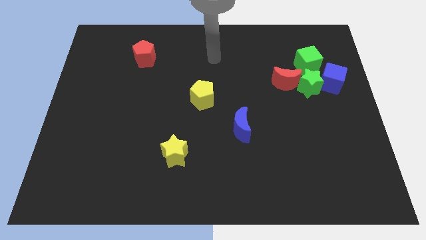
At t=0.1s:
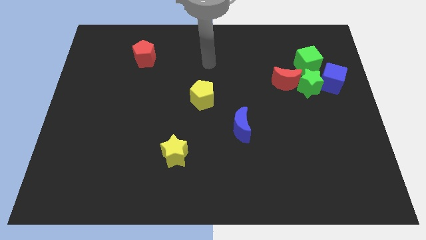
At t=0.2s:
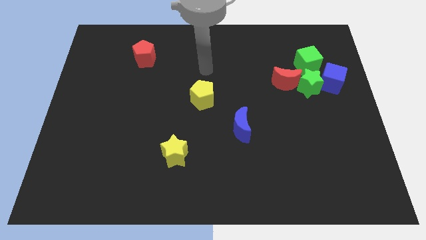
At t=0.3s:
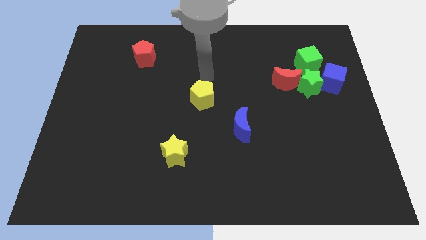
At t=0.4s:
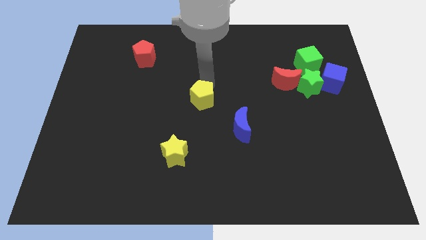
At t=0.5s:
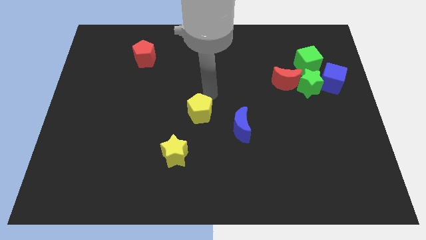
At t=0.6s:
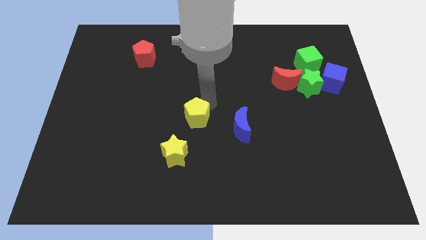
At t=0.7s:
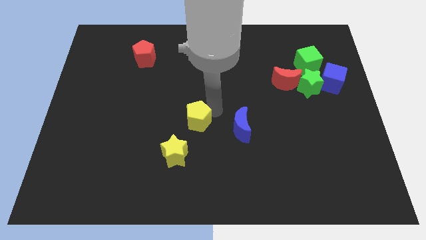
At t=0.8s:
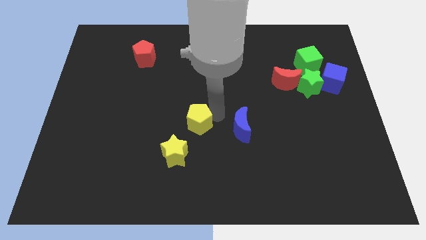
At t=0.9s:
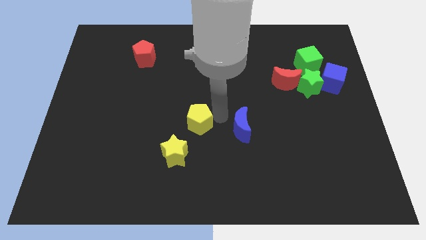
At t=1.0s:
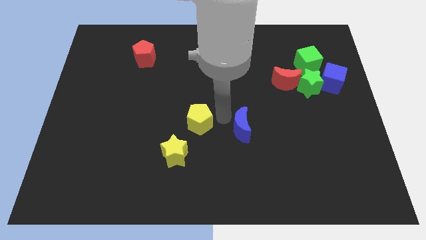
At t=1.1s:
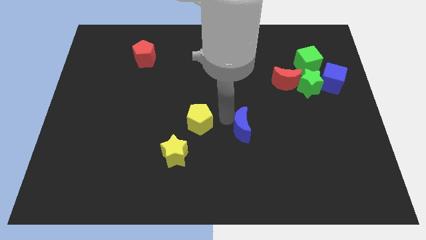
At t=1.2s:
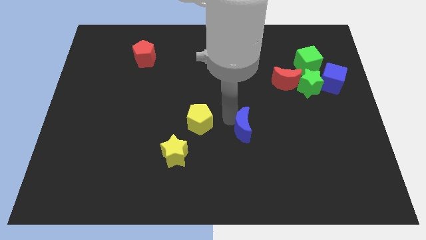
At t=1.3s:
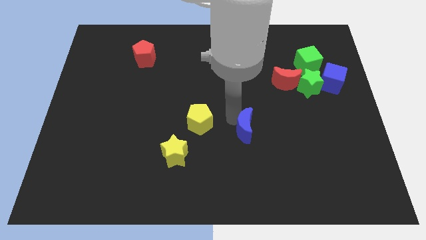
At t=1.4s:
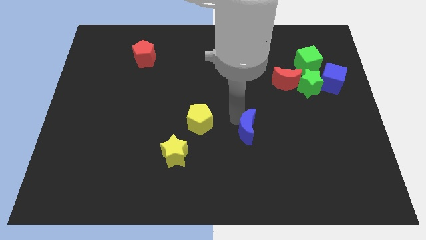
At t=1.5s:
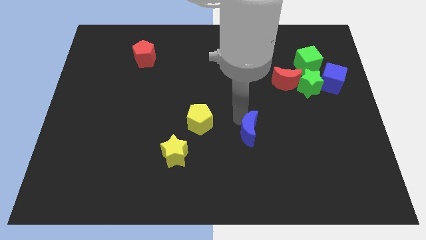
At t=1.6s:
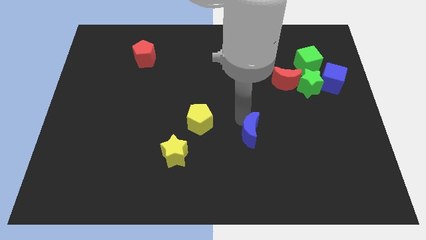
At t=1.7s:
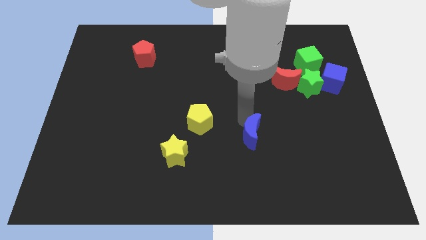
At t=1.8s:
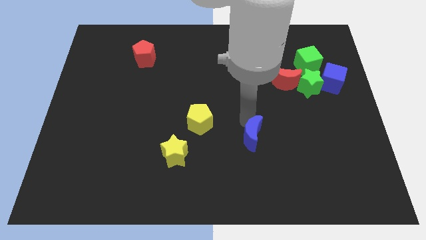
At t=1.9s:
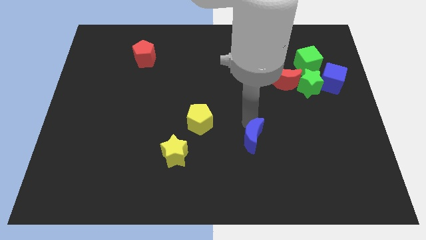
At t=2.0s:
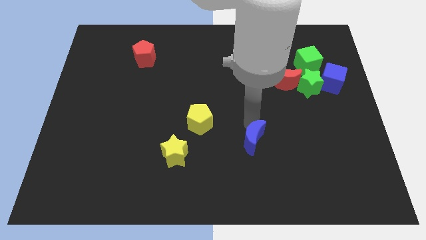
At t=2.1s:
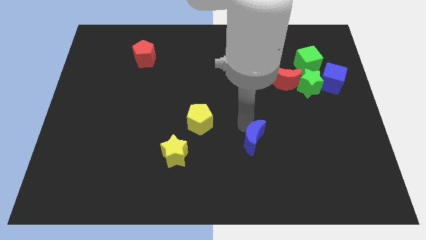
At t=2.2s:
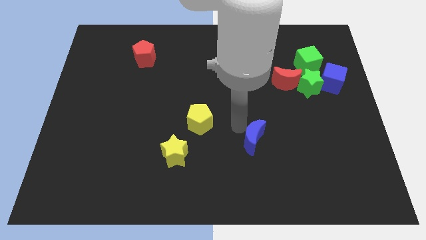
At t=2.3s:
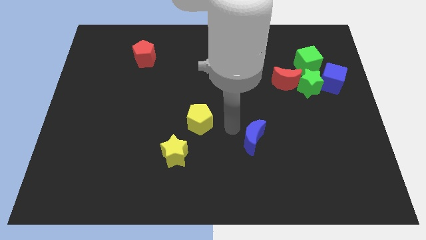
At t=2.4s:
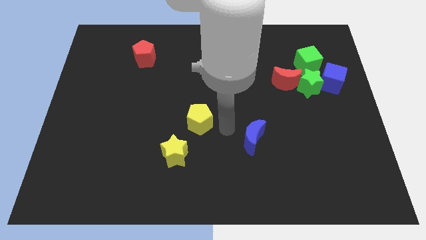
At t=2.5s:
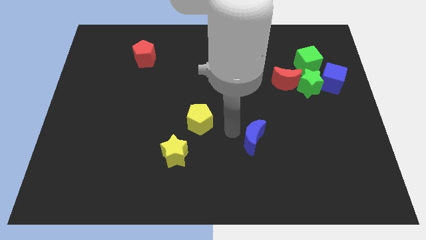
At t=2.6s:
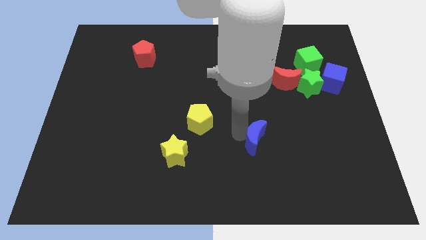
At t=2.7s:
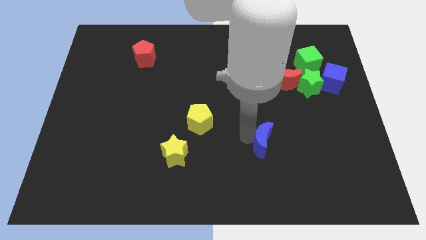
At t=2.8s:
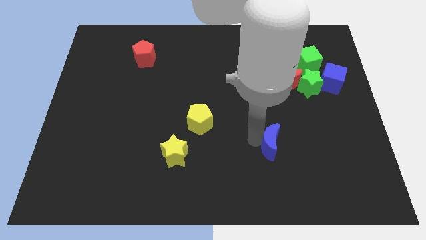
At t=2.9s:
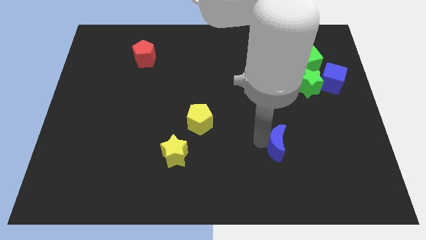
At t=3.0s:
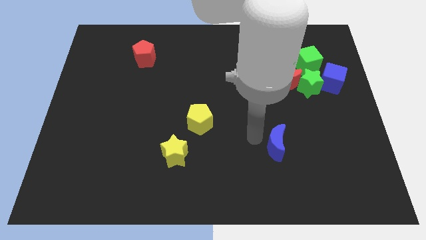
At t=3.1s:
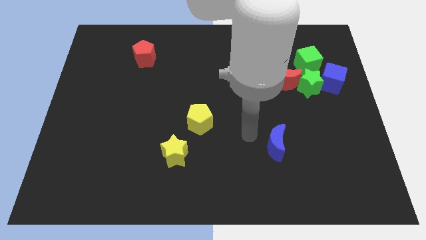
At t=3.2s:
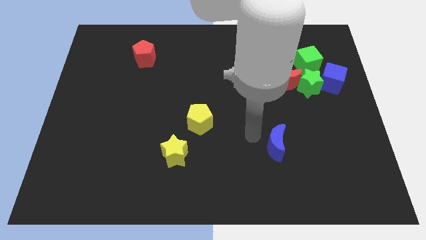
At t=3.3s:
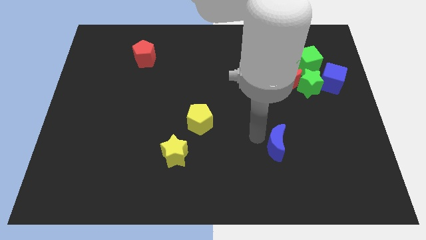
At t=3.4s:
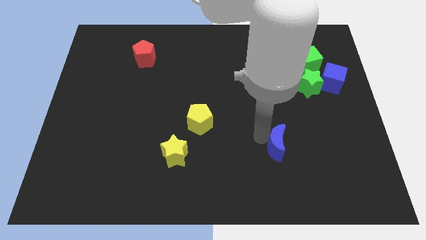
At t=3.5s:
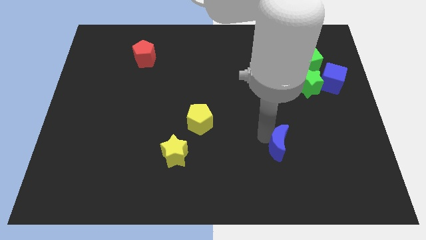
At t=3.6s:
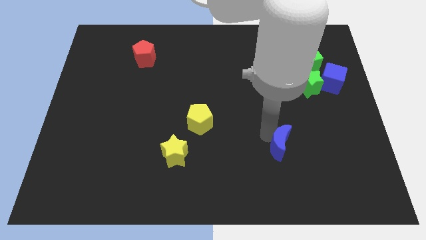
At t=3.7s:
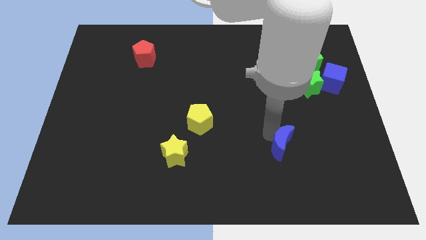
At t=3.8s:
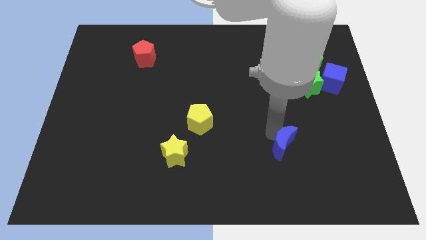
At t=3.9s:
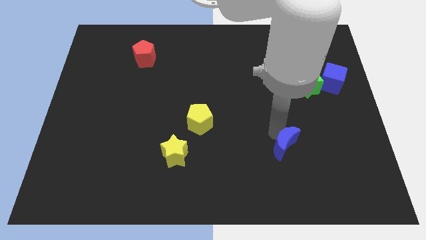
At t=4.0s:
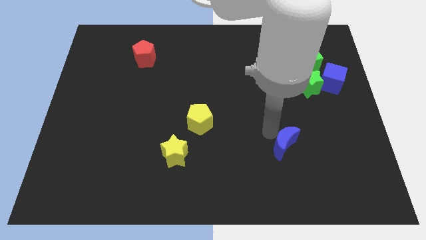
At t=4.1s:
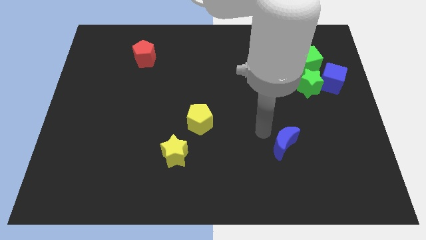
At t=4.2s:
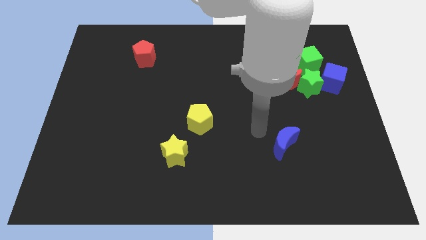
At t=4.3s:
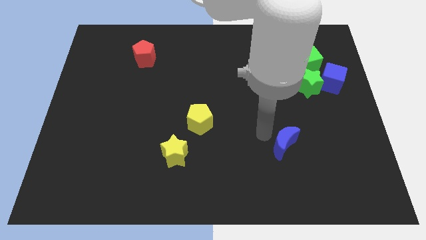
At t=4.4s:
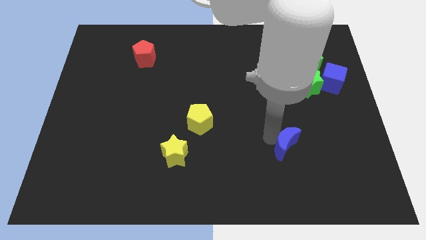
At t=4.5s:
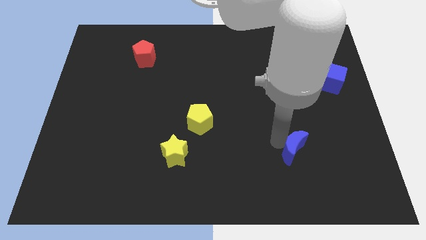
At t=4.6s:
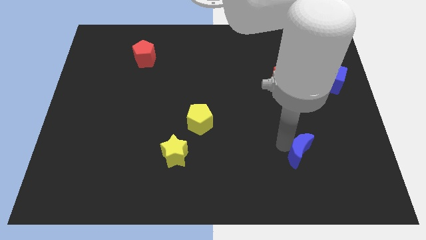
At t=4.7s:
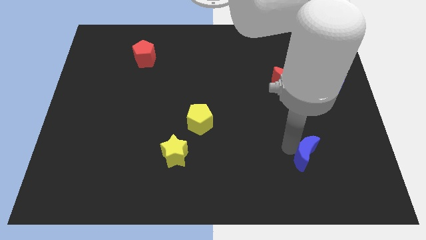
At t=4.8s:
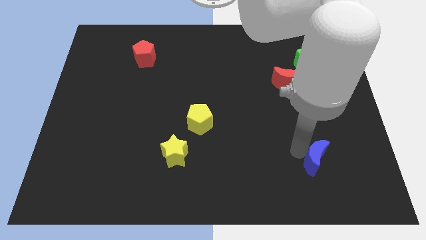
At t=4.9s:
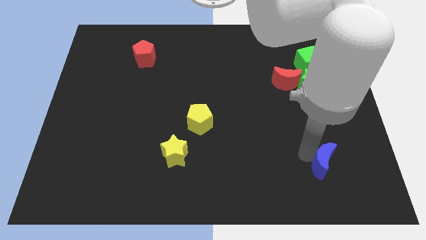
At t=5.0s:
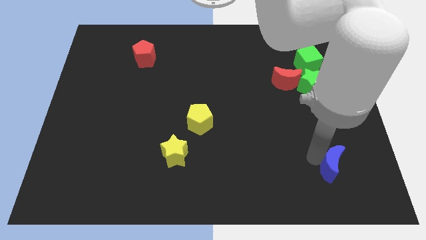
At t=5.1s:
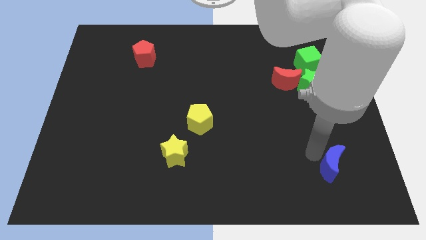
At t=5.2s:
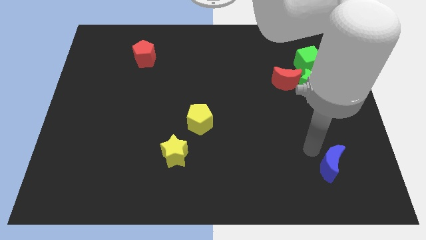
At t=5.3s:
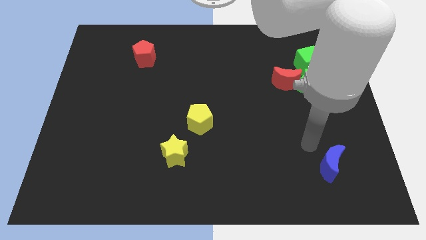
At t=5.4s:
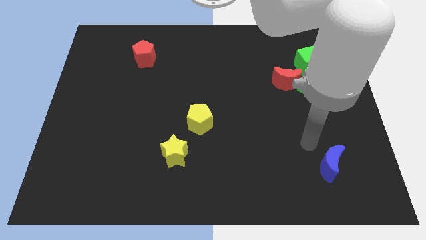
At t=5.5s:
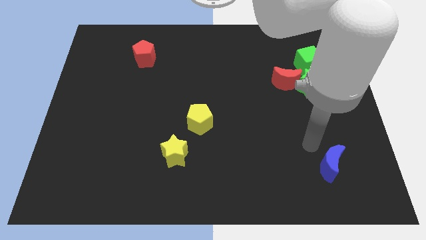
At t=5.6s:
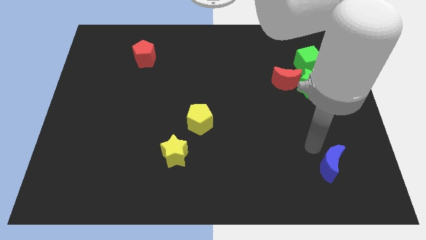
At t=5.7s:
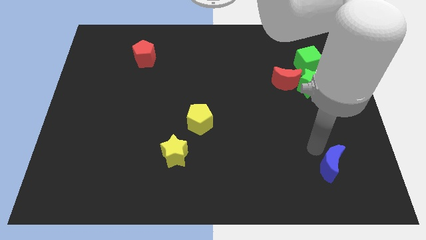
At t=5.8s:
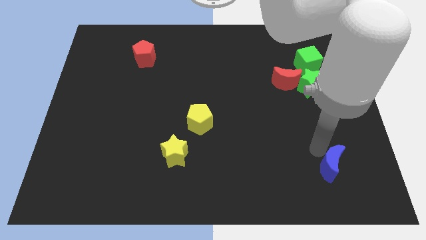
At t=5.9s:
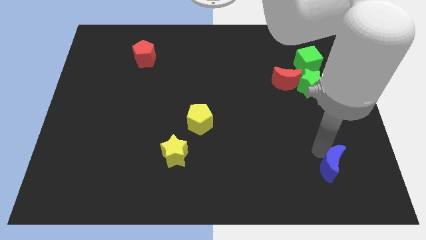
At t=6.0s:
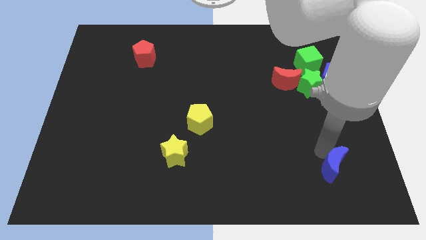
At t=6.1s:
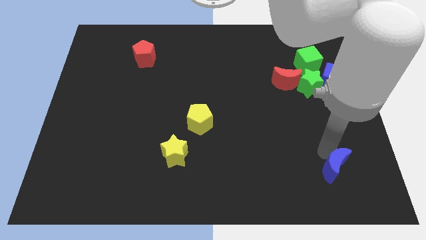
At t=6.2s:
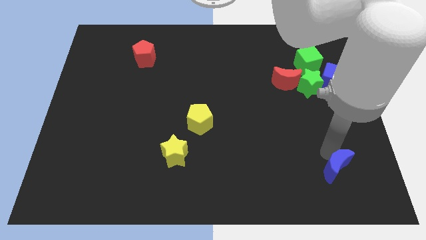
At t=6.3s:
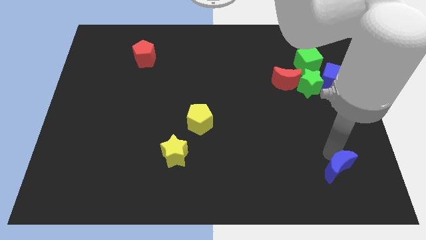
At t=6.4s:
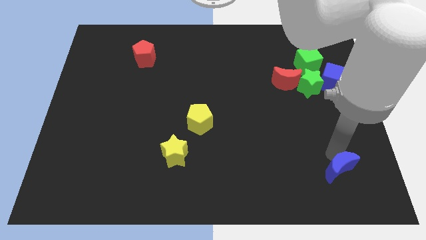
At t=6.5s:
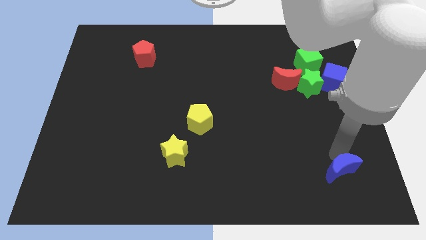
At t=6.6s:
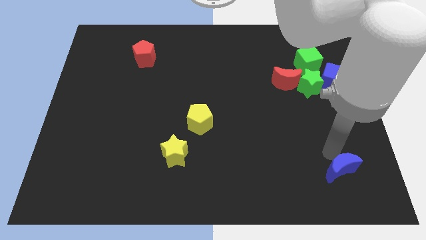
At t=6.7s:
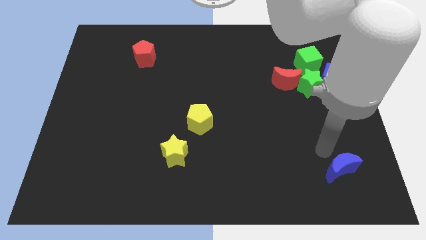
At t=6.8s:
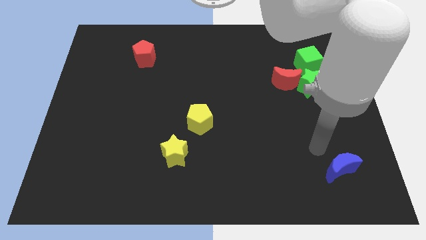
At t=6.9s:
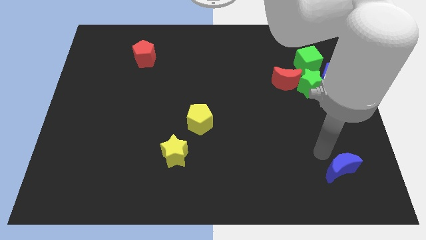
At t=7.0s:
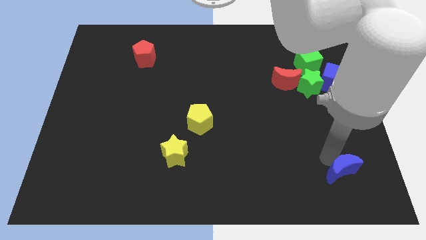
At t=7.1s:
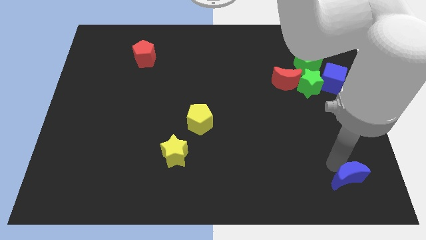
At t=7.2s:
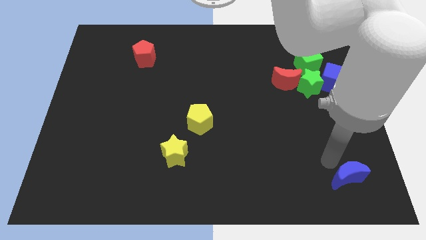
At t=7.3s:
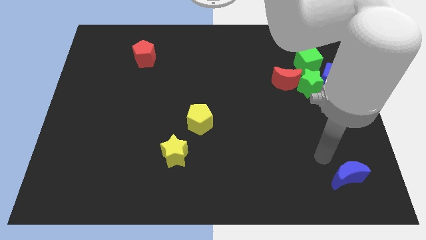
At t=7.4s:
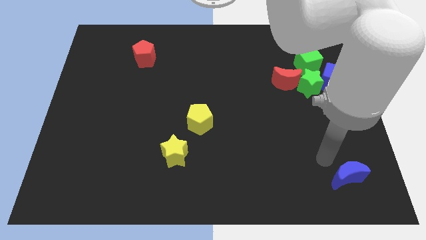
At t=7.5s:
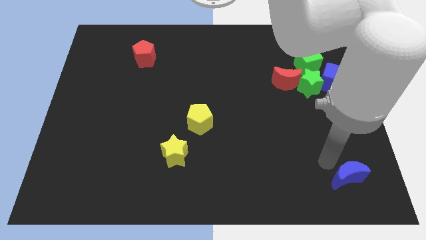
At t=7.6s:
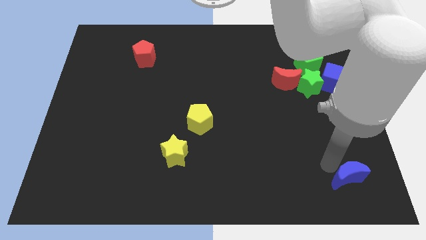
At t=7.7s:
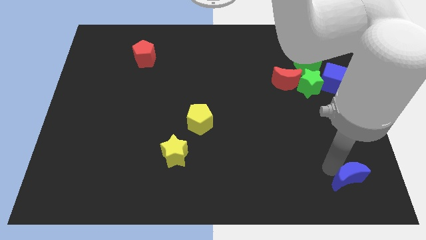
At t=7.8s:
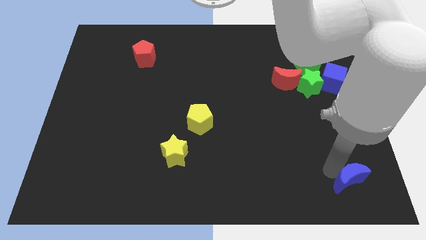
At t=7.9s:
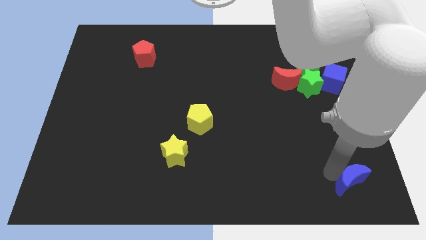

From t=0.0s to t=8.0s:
slide the blue moon to the bottom right corner
